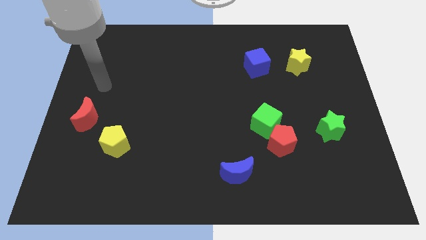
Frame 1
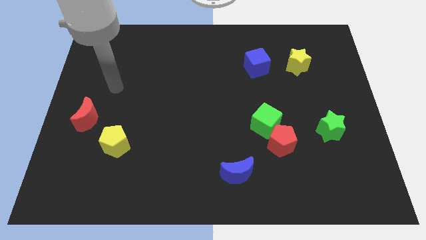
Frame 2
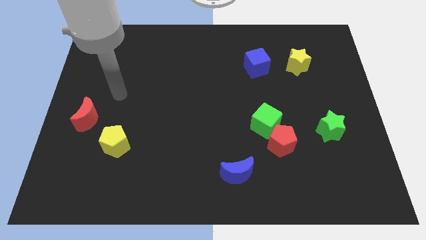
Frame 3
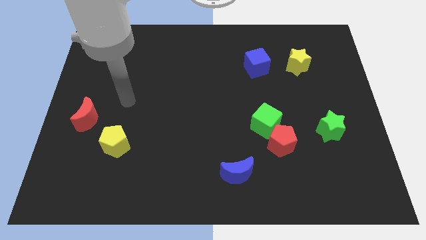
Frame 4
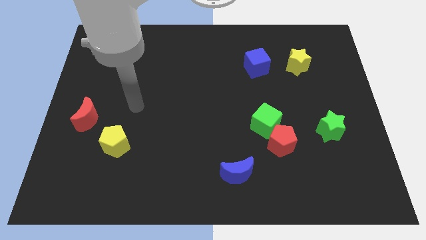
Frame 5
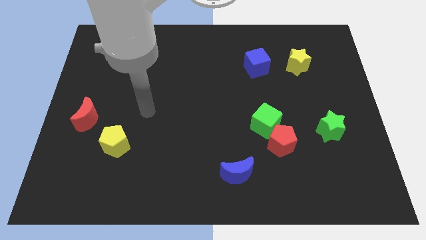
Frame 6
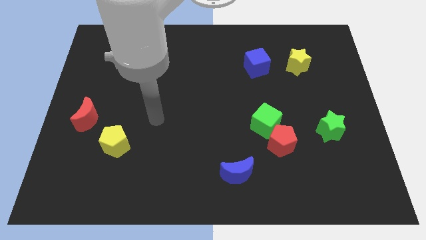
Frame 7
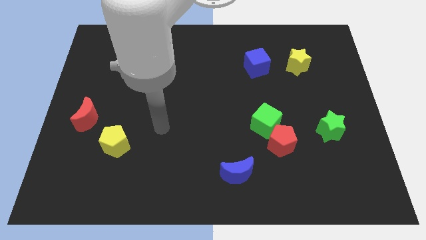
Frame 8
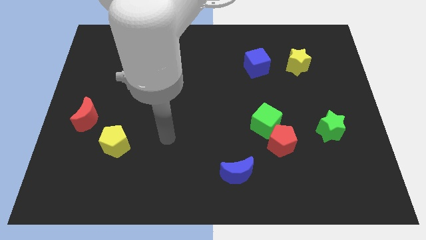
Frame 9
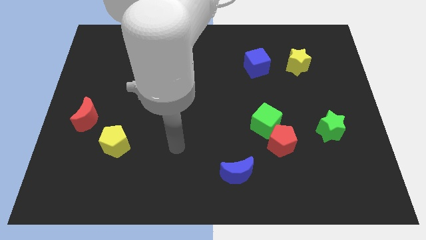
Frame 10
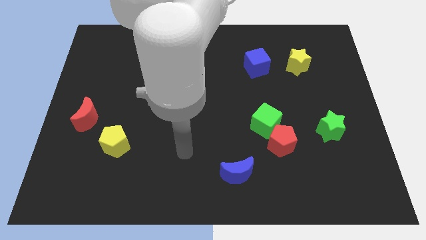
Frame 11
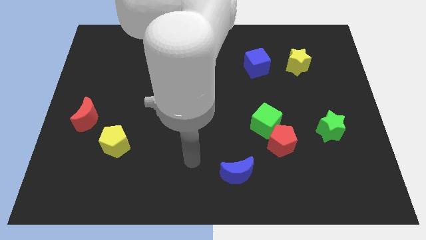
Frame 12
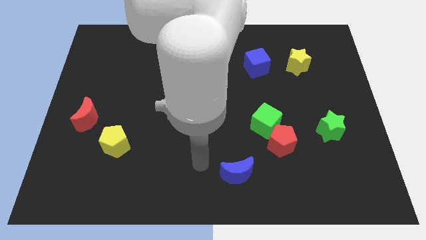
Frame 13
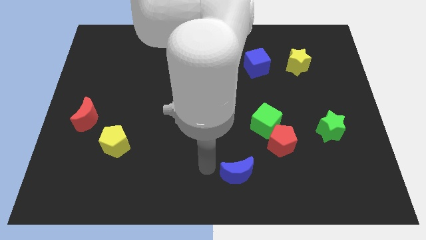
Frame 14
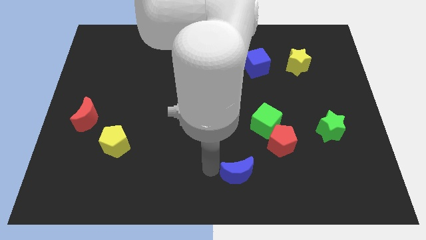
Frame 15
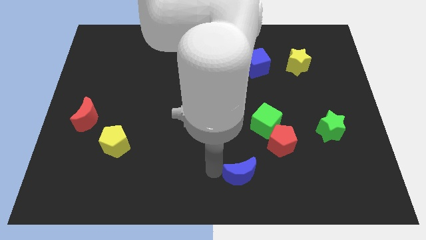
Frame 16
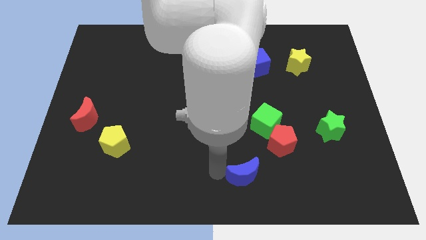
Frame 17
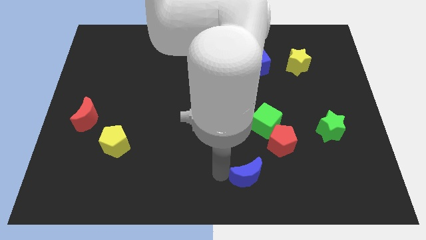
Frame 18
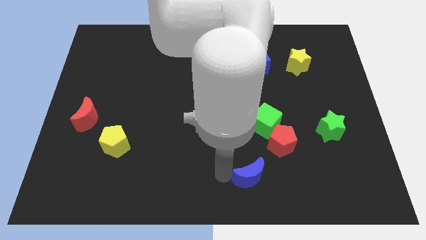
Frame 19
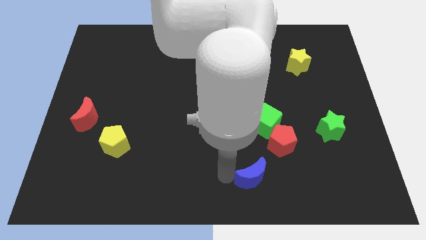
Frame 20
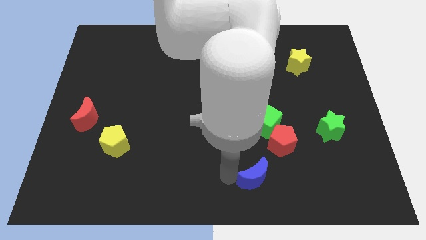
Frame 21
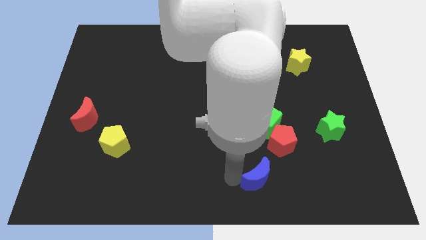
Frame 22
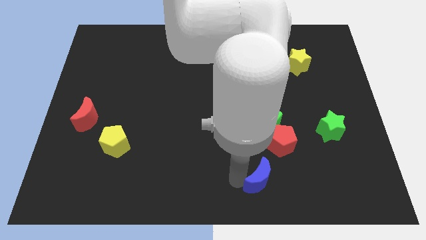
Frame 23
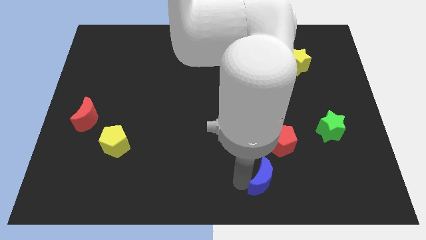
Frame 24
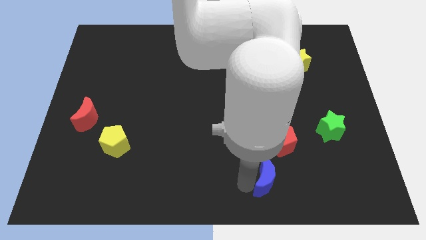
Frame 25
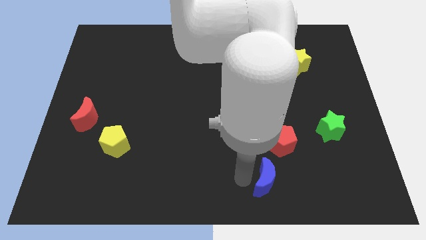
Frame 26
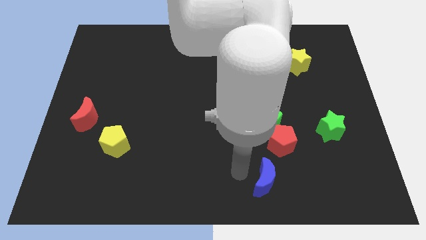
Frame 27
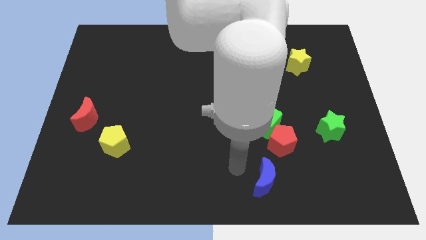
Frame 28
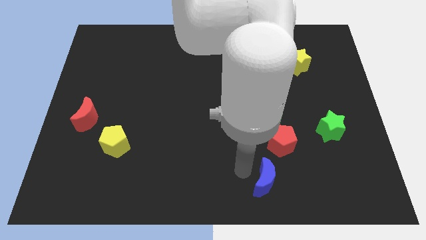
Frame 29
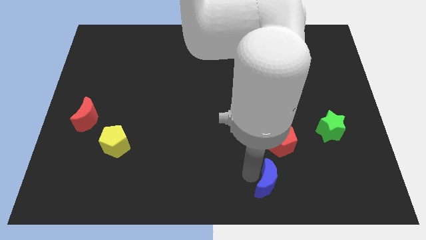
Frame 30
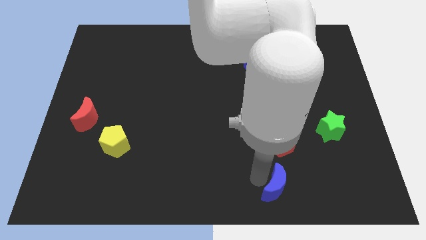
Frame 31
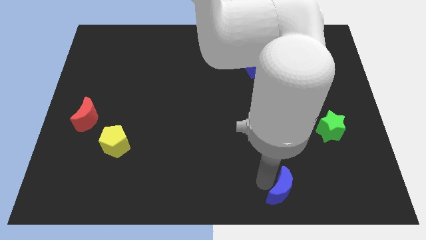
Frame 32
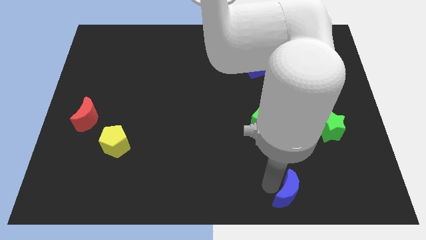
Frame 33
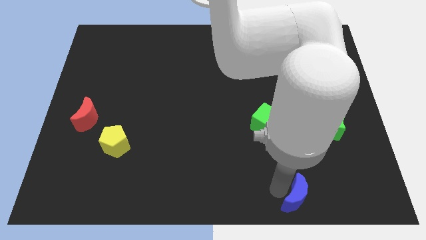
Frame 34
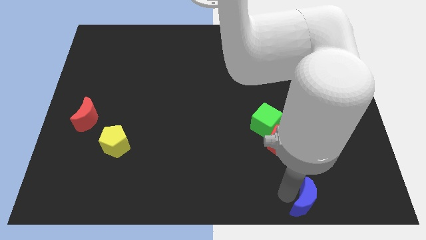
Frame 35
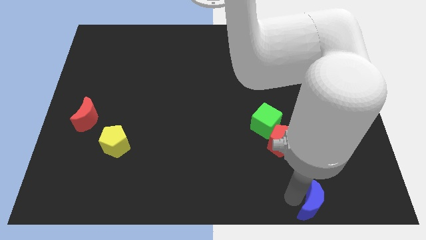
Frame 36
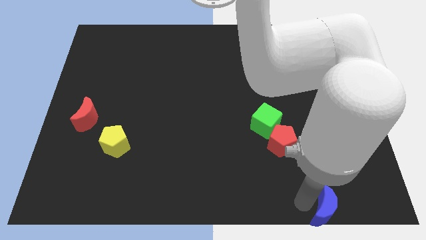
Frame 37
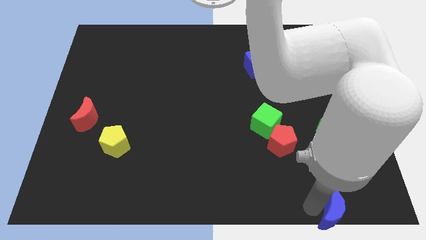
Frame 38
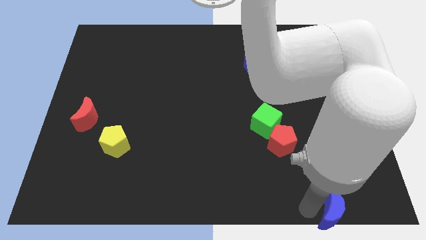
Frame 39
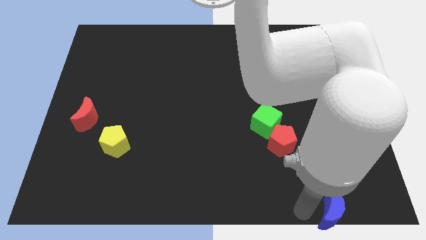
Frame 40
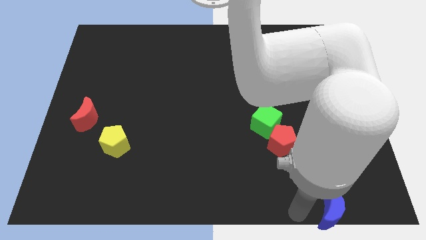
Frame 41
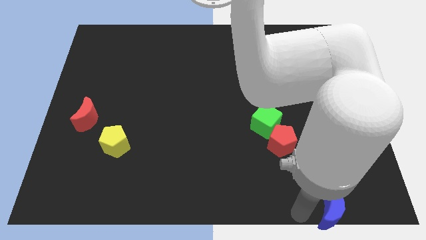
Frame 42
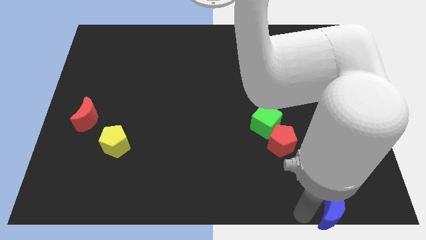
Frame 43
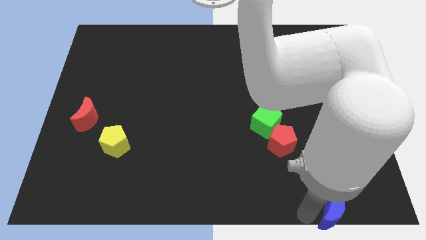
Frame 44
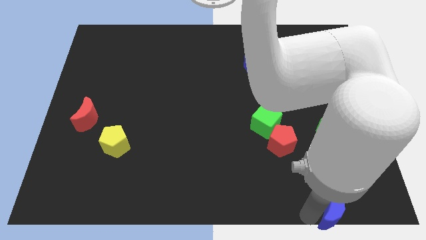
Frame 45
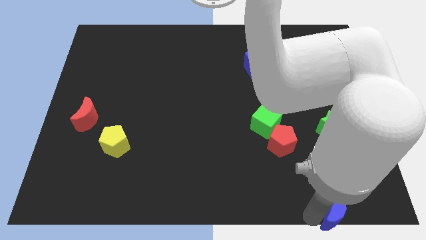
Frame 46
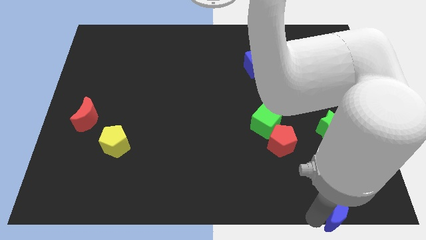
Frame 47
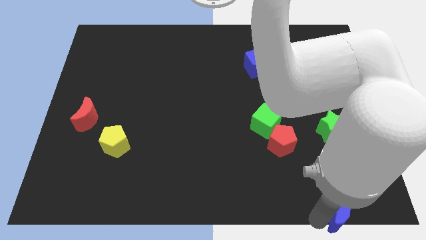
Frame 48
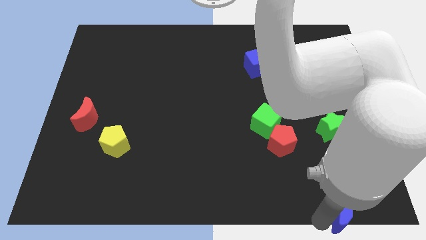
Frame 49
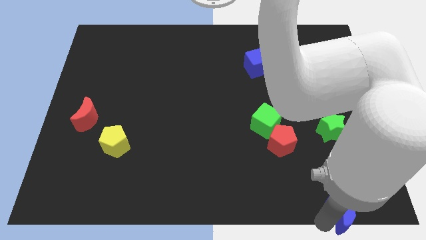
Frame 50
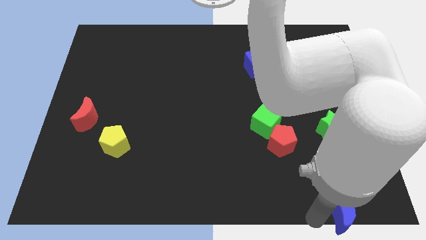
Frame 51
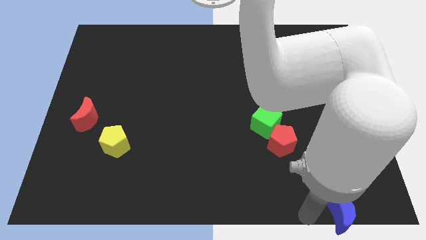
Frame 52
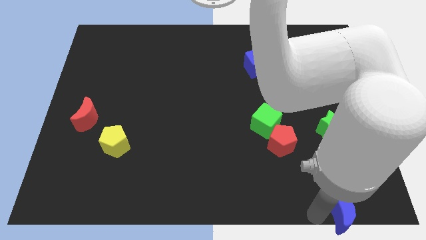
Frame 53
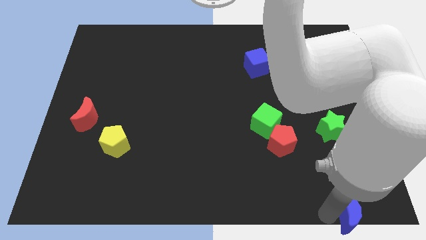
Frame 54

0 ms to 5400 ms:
put the blue moon to the bottom right of the board
